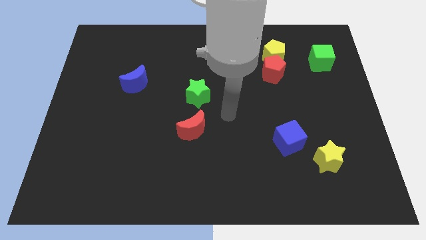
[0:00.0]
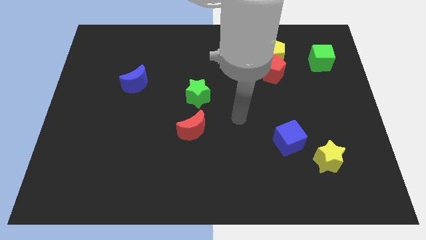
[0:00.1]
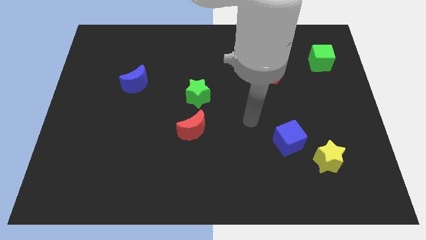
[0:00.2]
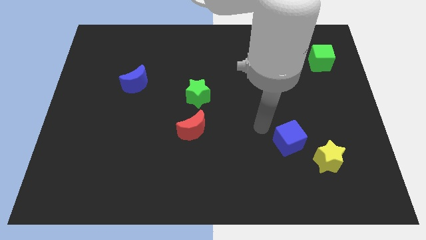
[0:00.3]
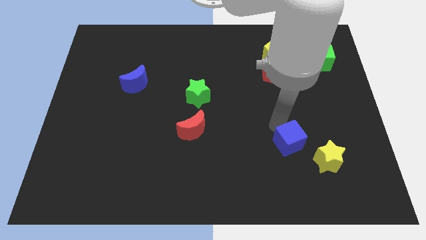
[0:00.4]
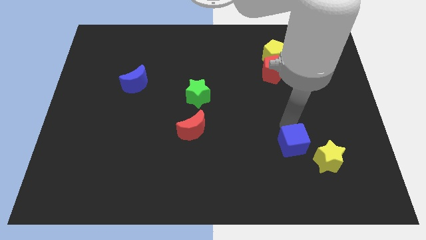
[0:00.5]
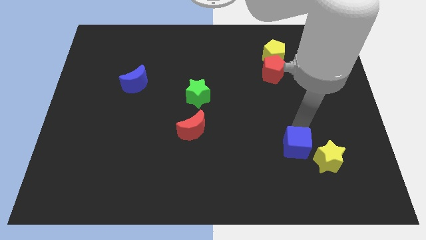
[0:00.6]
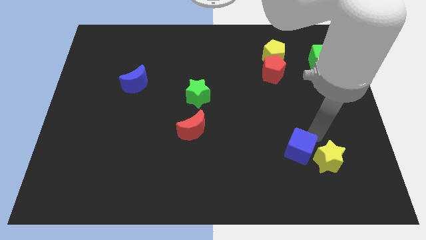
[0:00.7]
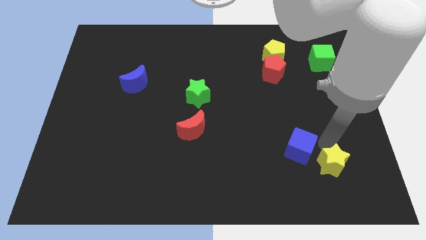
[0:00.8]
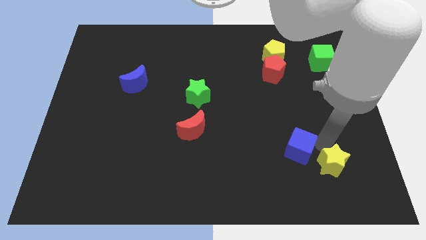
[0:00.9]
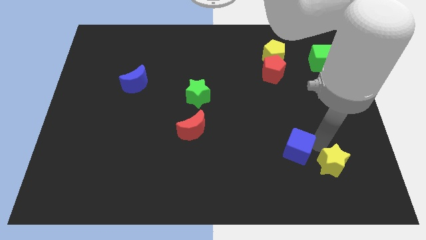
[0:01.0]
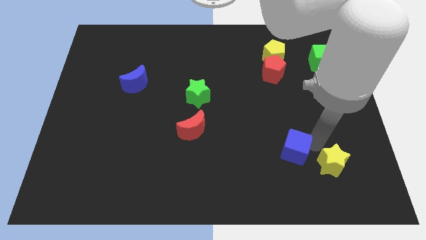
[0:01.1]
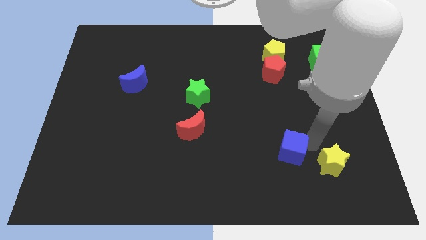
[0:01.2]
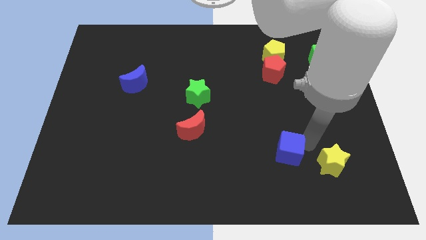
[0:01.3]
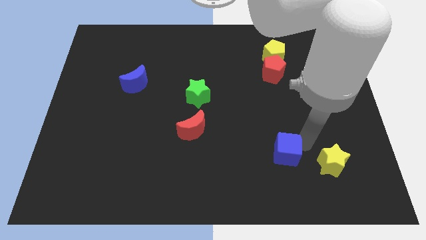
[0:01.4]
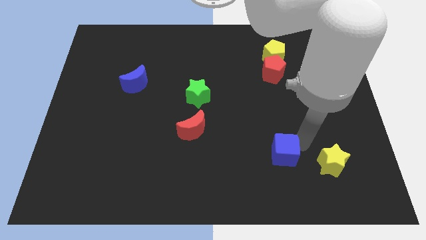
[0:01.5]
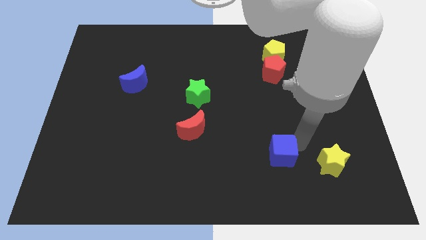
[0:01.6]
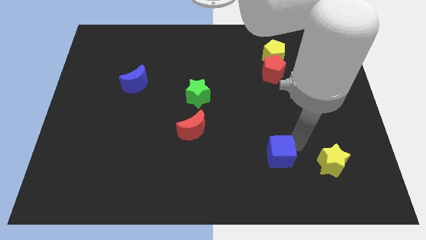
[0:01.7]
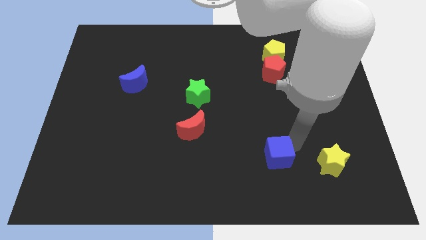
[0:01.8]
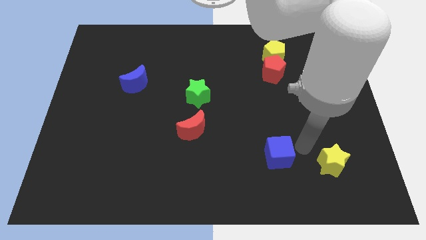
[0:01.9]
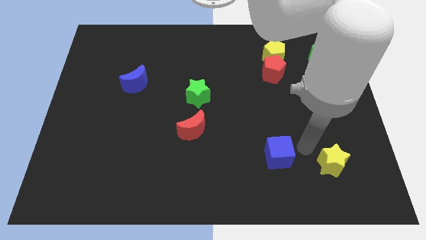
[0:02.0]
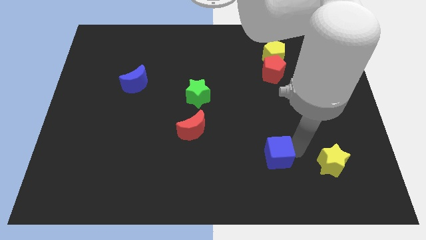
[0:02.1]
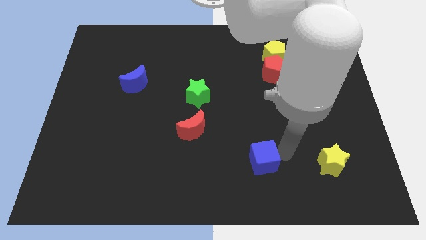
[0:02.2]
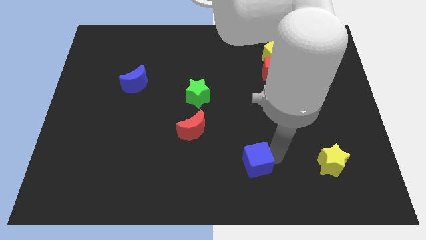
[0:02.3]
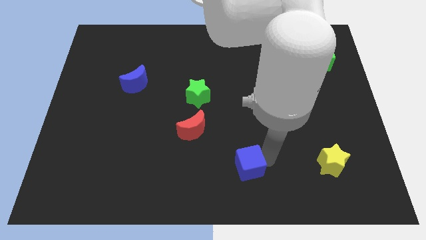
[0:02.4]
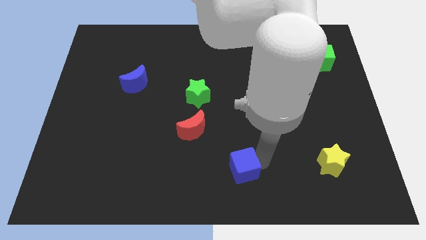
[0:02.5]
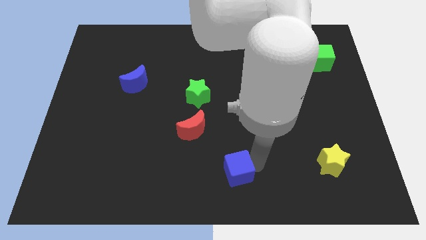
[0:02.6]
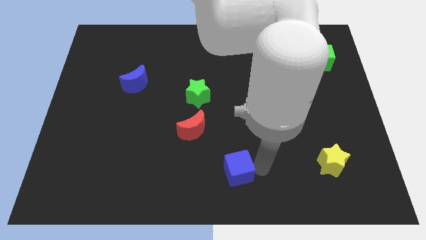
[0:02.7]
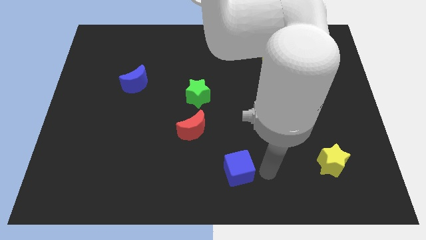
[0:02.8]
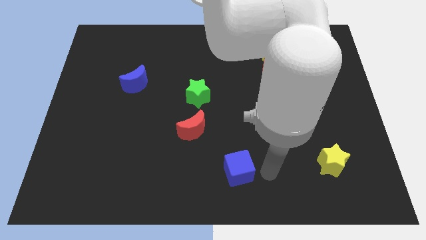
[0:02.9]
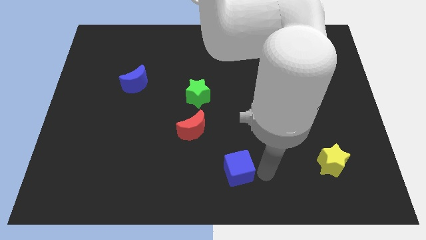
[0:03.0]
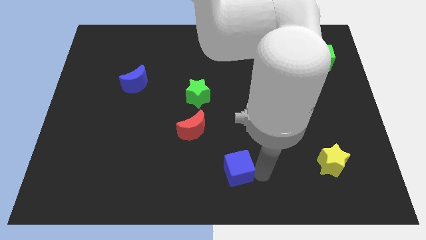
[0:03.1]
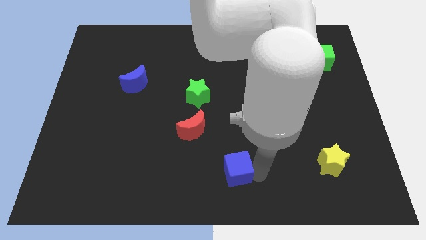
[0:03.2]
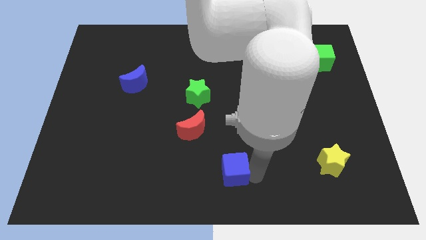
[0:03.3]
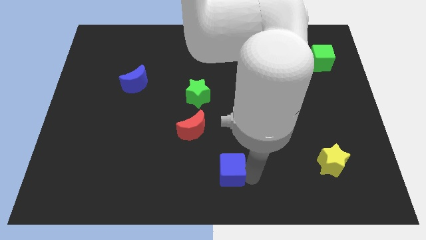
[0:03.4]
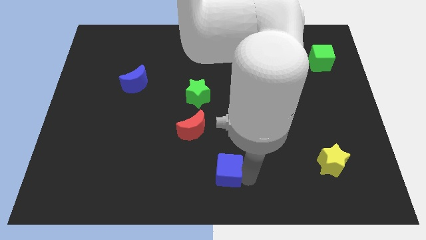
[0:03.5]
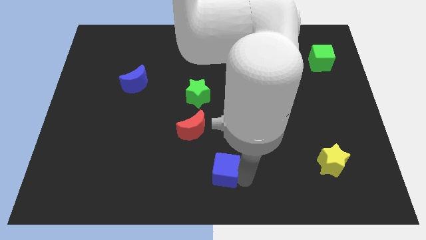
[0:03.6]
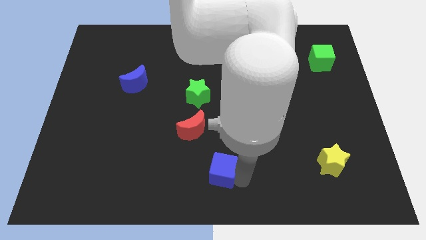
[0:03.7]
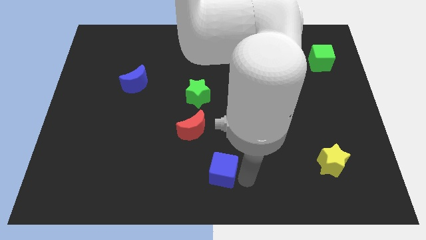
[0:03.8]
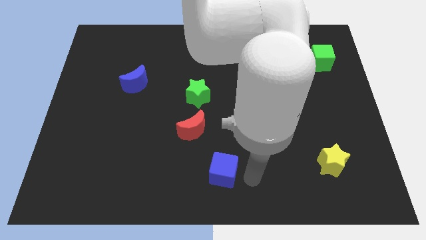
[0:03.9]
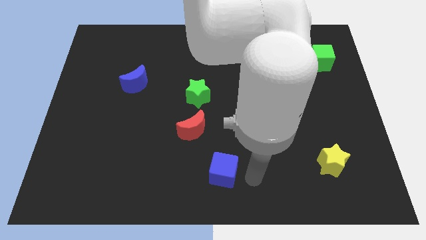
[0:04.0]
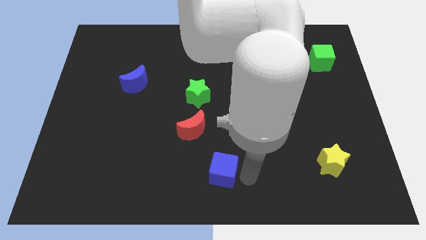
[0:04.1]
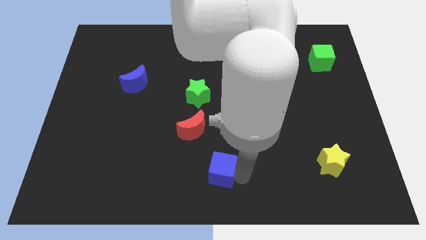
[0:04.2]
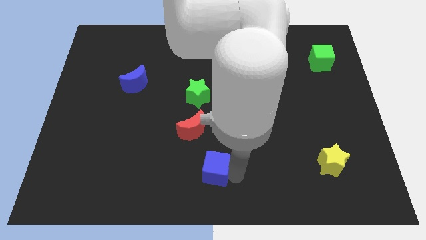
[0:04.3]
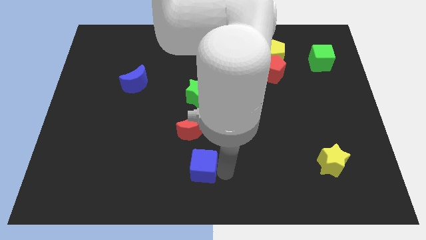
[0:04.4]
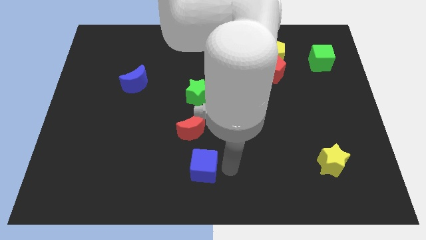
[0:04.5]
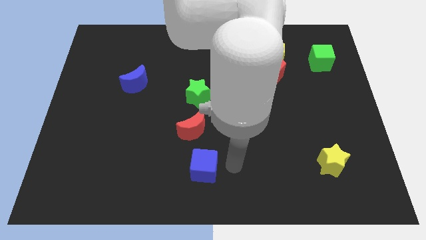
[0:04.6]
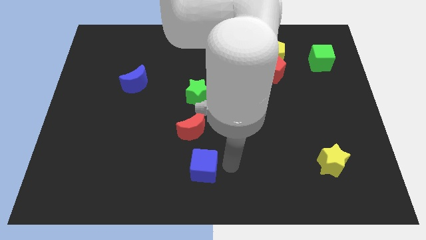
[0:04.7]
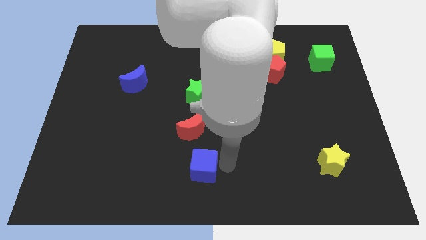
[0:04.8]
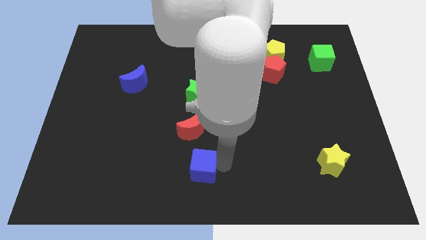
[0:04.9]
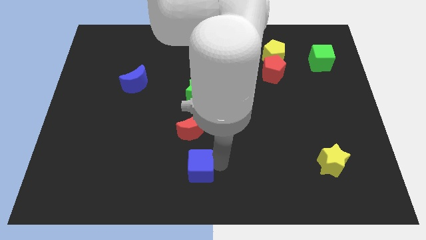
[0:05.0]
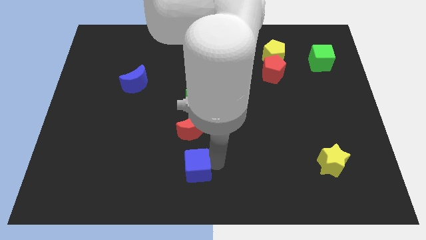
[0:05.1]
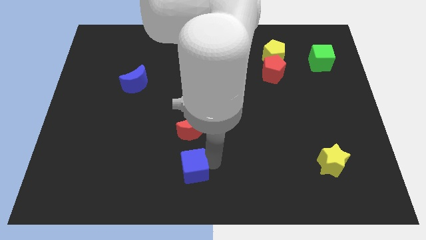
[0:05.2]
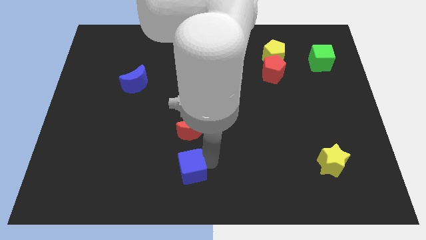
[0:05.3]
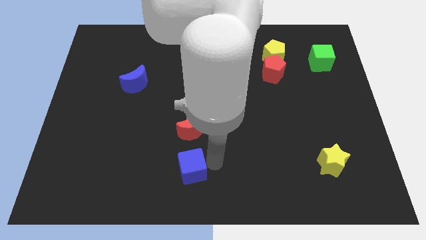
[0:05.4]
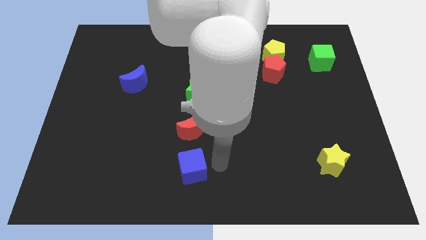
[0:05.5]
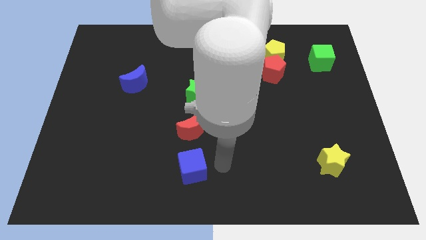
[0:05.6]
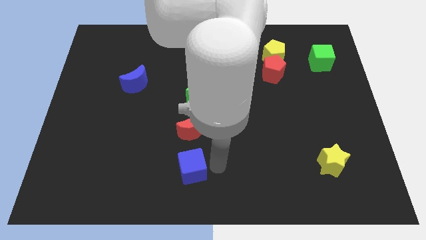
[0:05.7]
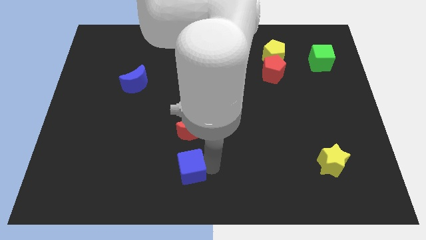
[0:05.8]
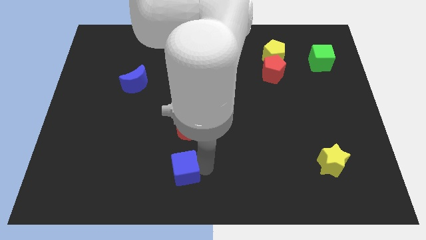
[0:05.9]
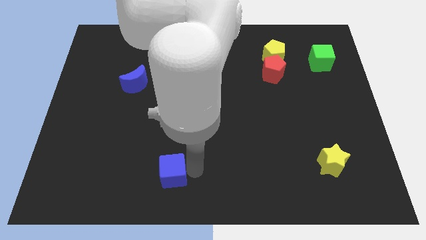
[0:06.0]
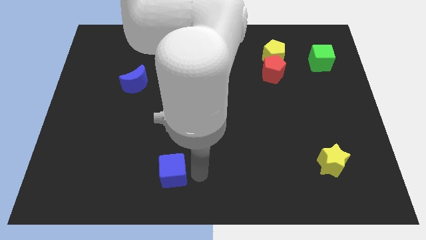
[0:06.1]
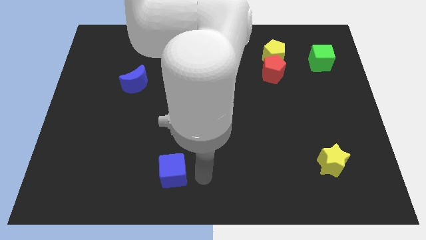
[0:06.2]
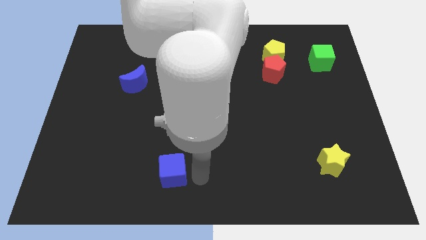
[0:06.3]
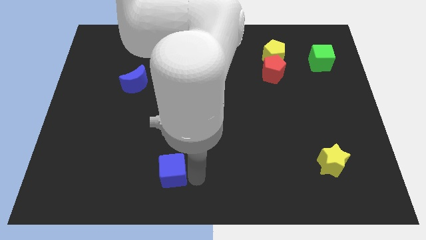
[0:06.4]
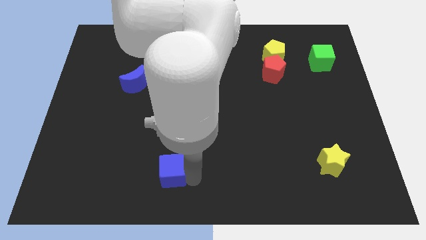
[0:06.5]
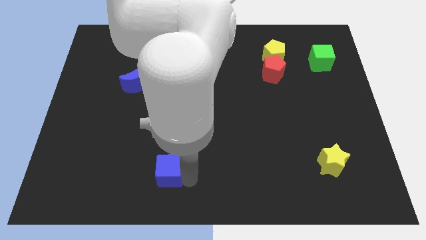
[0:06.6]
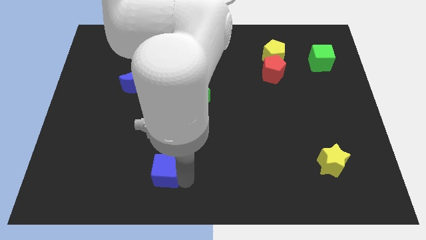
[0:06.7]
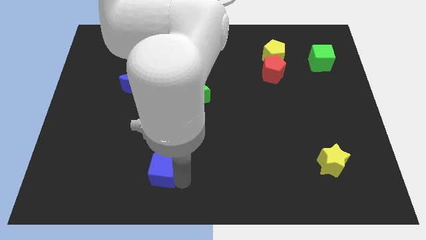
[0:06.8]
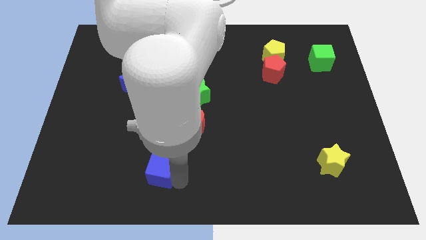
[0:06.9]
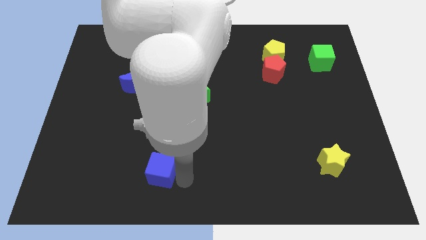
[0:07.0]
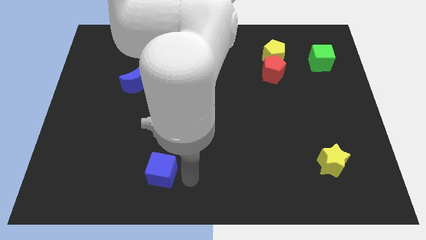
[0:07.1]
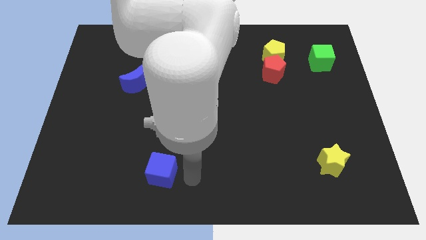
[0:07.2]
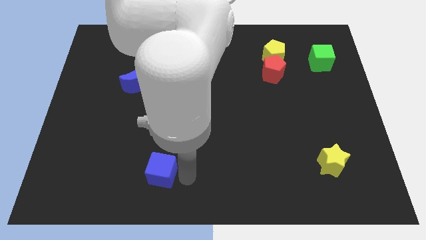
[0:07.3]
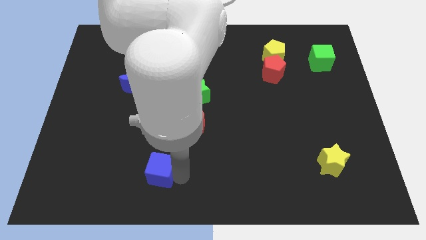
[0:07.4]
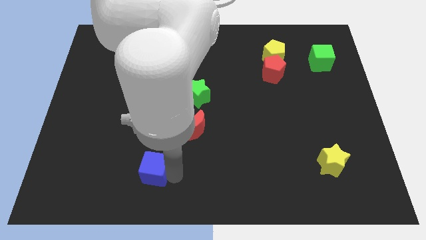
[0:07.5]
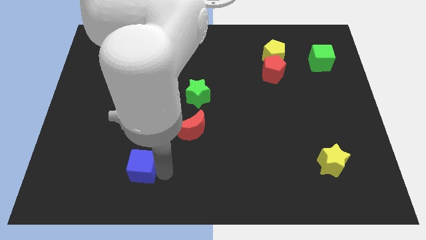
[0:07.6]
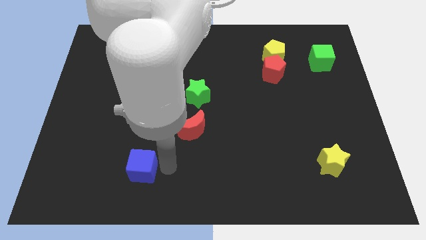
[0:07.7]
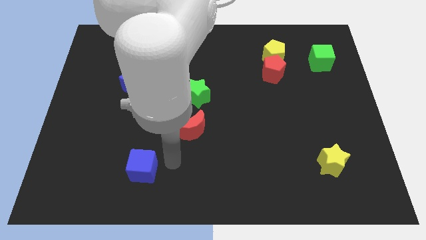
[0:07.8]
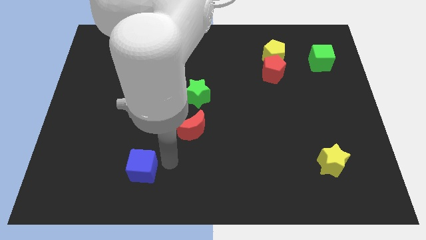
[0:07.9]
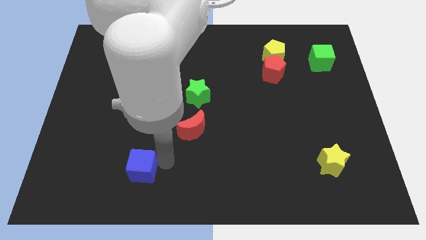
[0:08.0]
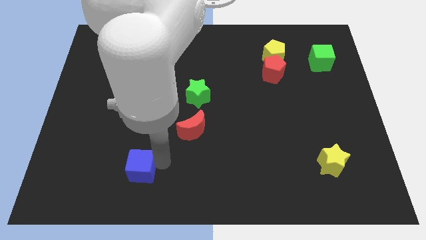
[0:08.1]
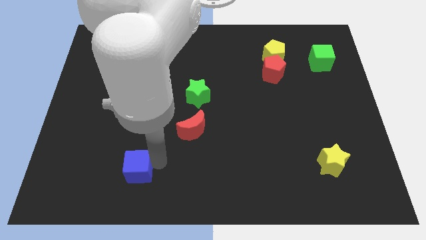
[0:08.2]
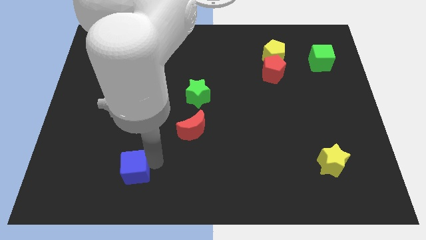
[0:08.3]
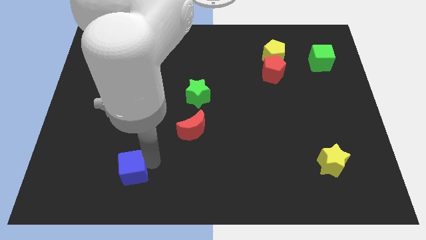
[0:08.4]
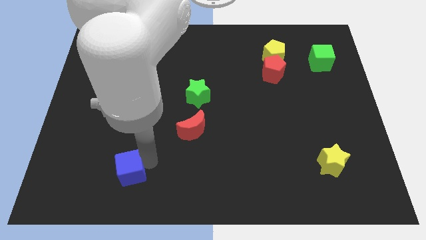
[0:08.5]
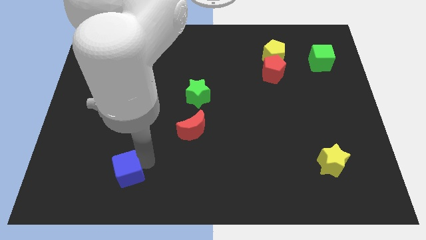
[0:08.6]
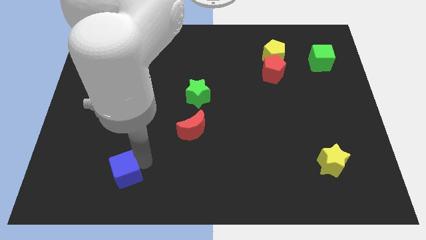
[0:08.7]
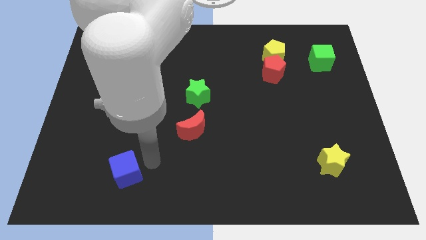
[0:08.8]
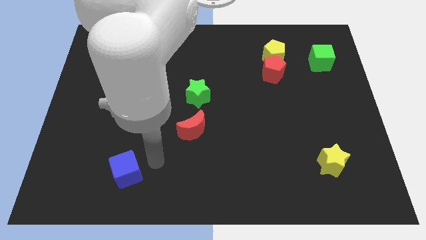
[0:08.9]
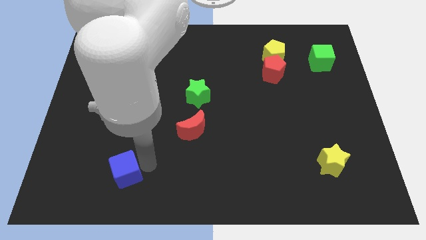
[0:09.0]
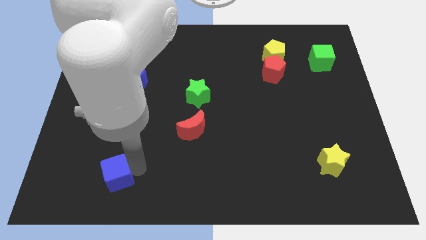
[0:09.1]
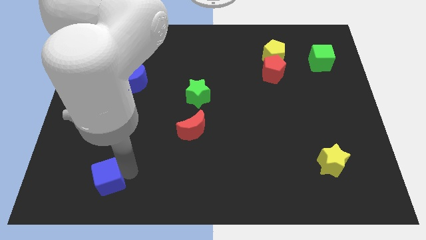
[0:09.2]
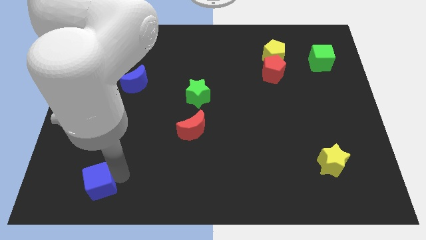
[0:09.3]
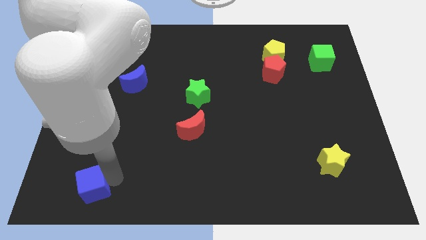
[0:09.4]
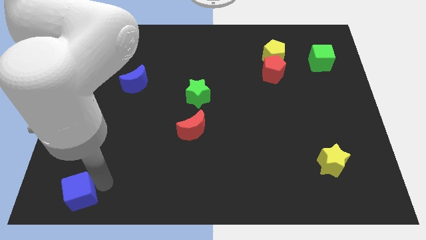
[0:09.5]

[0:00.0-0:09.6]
slide the blue cube to the lower left corner
